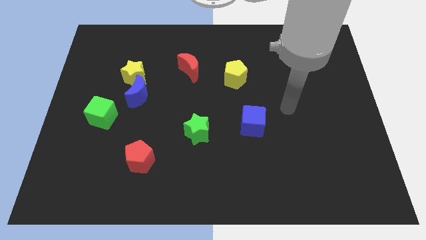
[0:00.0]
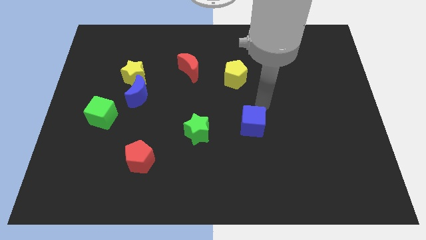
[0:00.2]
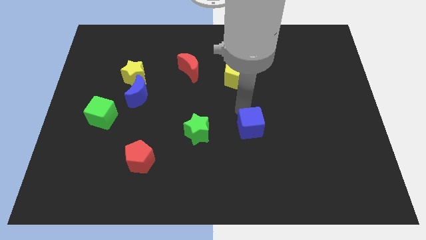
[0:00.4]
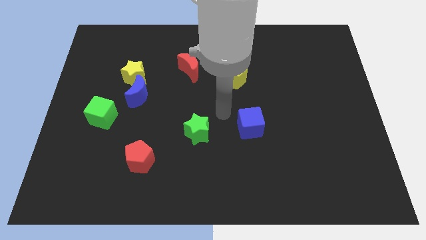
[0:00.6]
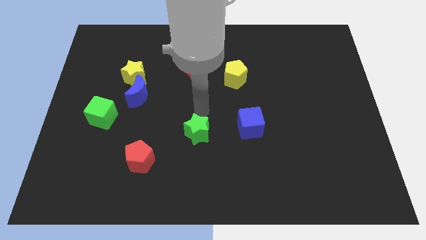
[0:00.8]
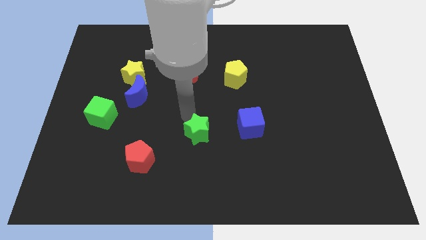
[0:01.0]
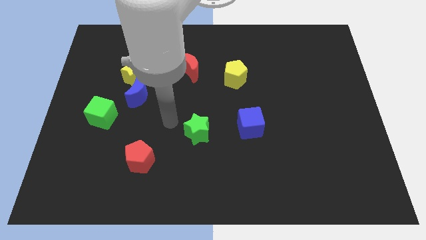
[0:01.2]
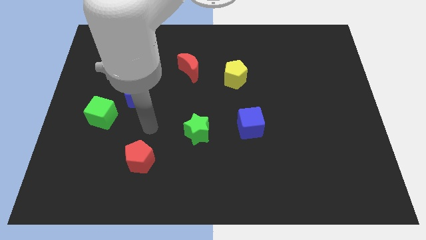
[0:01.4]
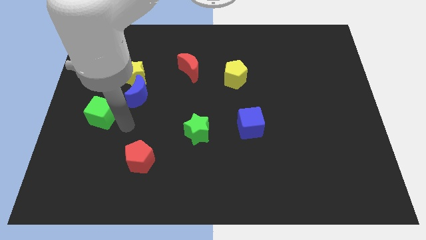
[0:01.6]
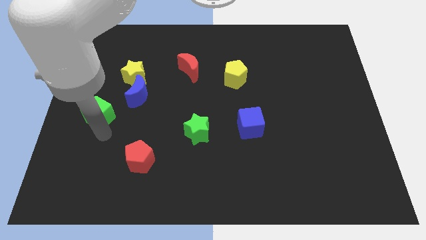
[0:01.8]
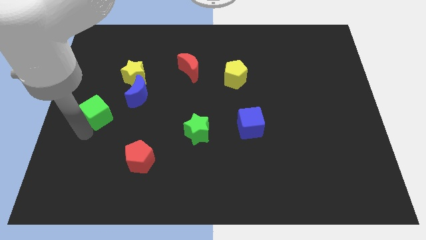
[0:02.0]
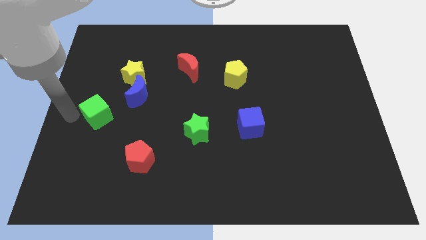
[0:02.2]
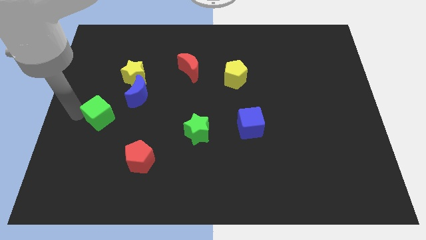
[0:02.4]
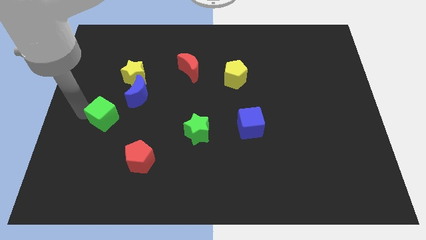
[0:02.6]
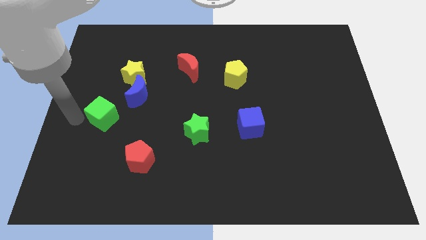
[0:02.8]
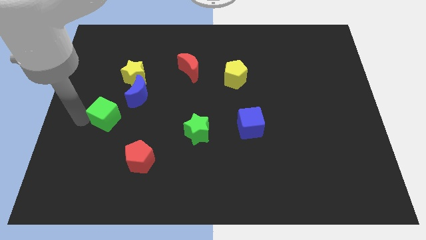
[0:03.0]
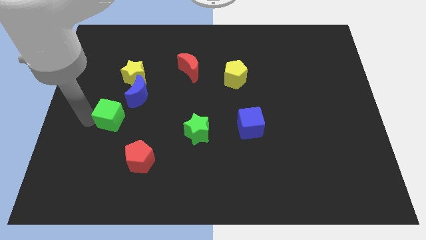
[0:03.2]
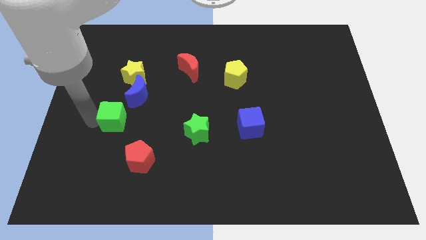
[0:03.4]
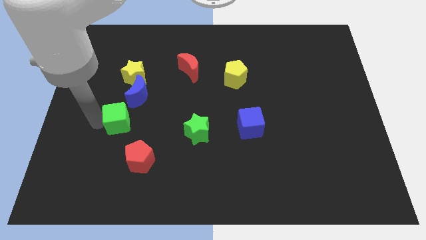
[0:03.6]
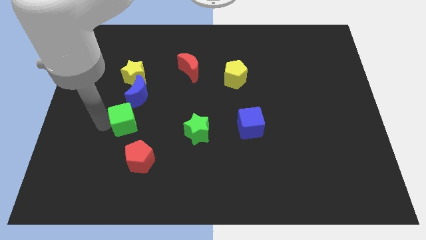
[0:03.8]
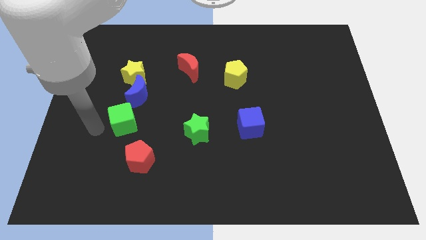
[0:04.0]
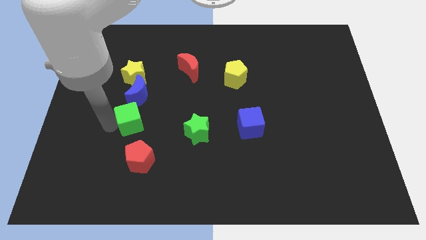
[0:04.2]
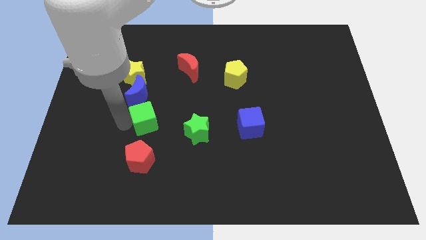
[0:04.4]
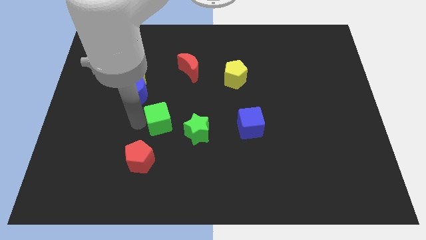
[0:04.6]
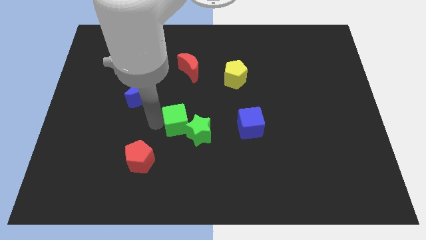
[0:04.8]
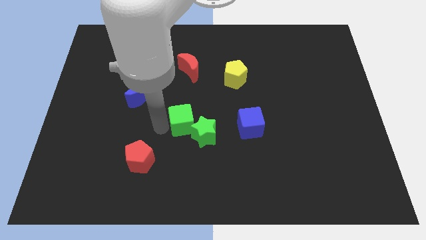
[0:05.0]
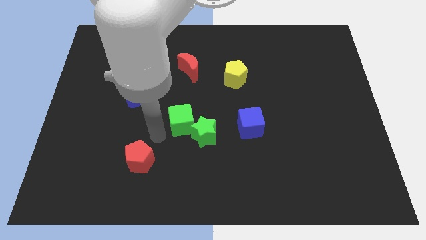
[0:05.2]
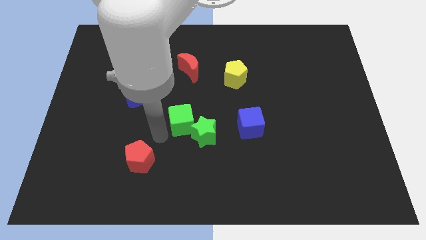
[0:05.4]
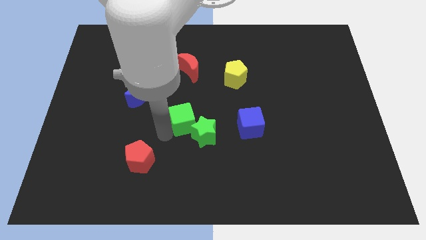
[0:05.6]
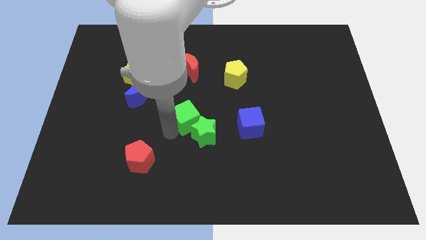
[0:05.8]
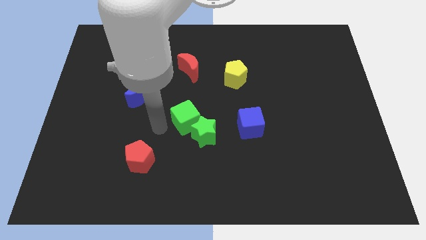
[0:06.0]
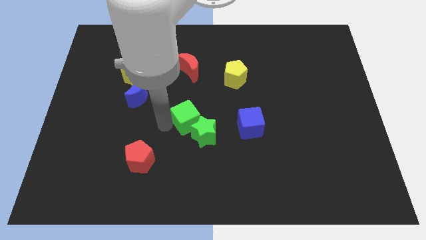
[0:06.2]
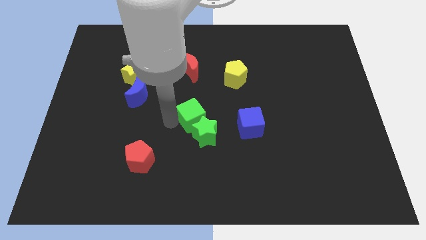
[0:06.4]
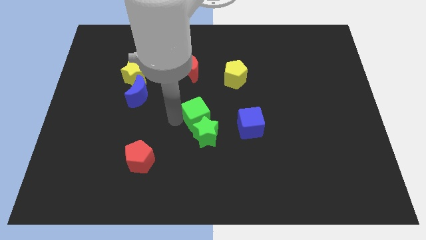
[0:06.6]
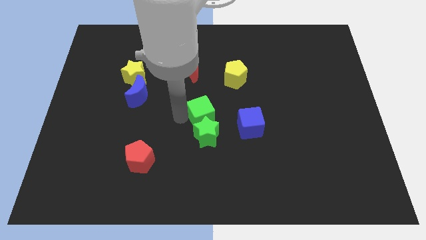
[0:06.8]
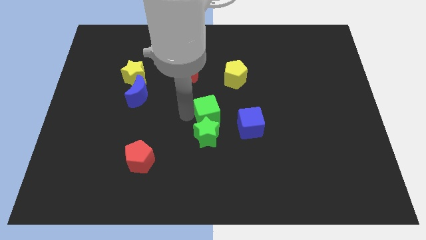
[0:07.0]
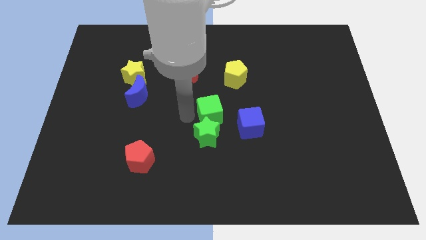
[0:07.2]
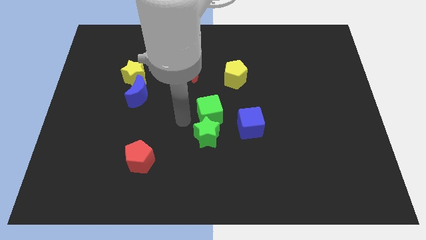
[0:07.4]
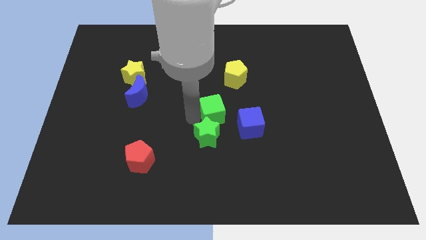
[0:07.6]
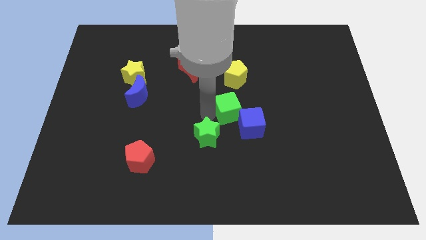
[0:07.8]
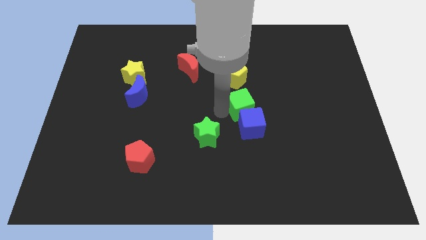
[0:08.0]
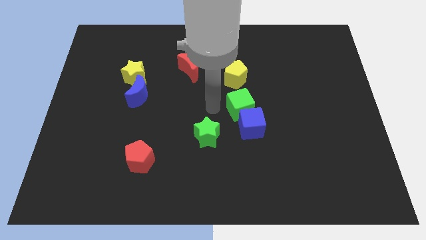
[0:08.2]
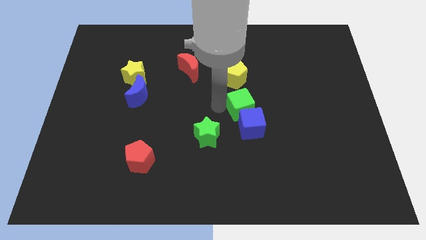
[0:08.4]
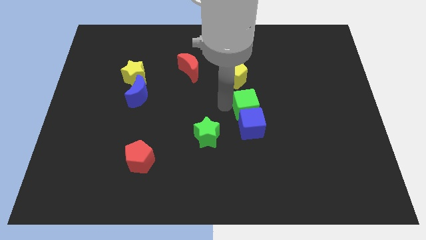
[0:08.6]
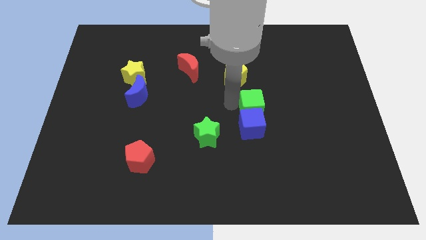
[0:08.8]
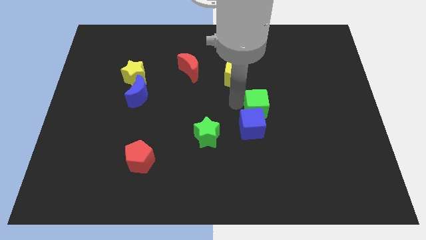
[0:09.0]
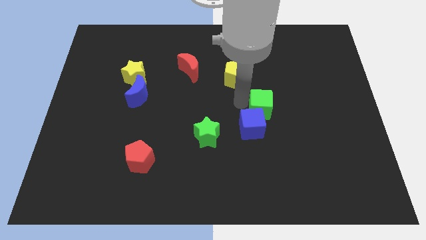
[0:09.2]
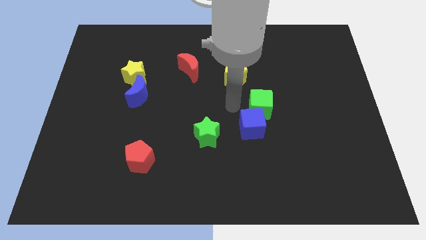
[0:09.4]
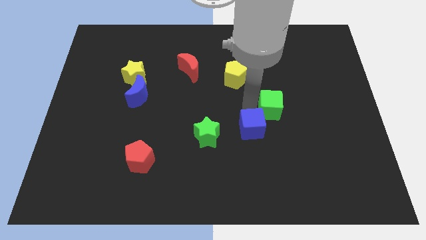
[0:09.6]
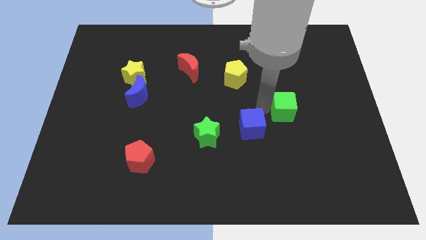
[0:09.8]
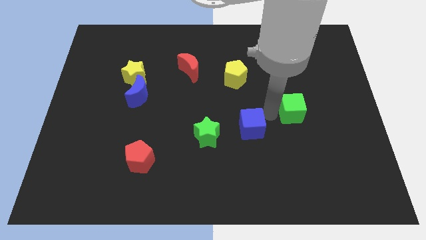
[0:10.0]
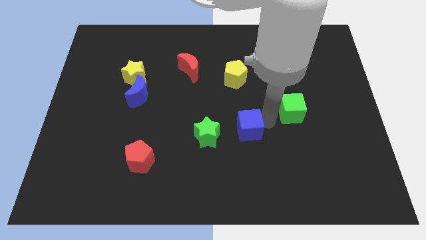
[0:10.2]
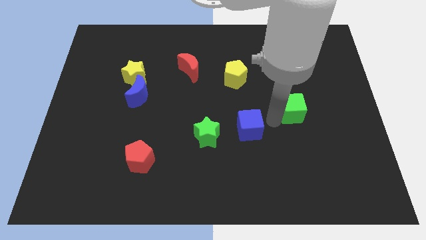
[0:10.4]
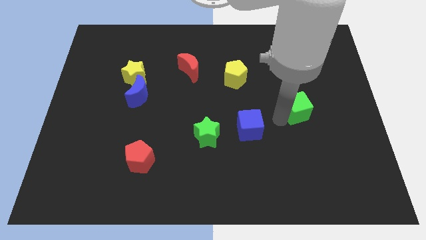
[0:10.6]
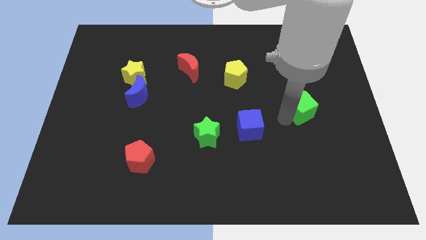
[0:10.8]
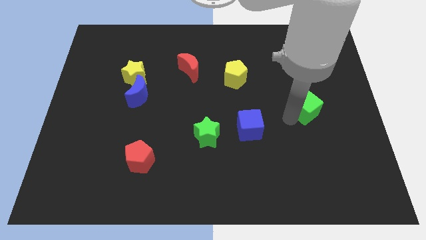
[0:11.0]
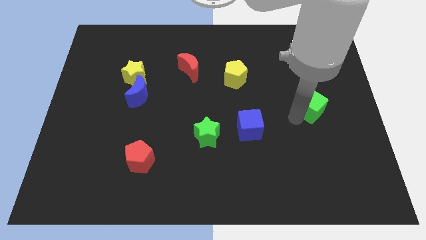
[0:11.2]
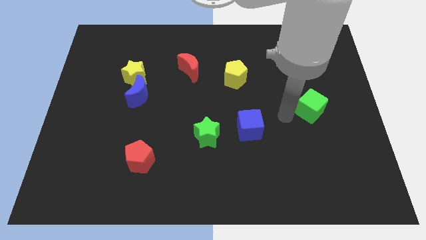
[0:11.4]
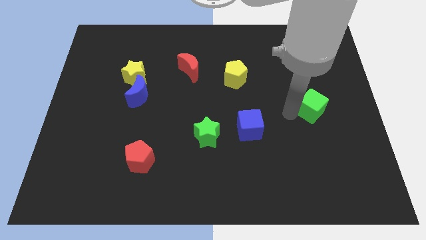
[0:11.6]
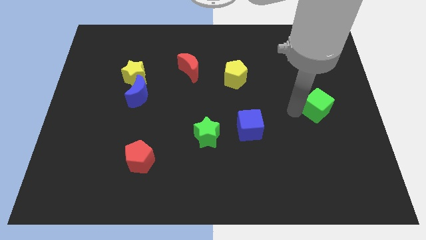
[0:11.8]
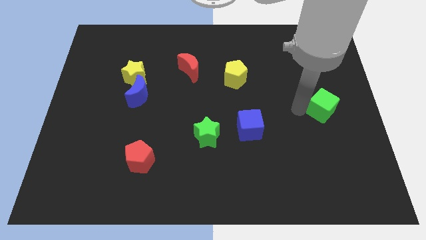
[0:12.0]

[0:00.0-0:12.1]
slide the green cube to the center right

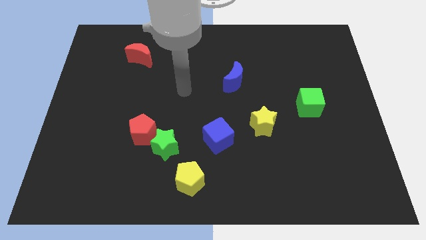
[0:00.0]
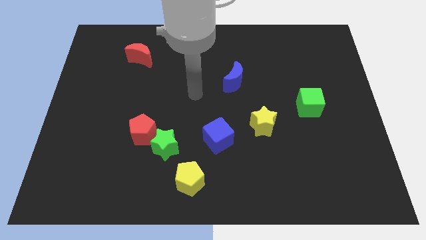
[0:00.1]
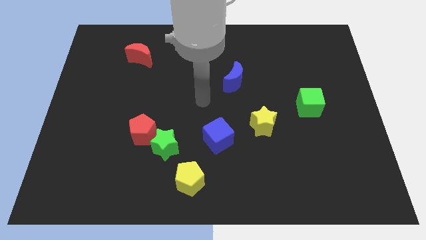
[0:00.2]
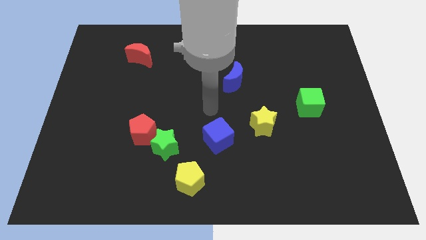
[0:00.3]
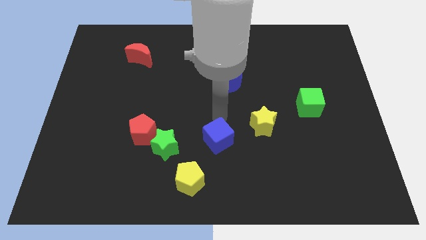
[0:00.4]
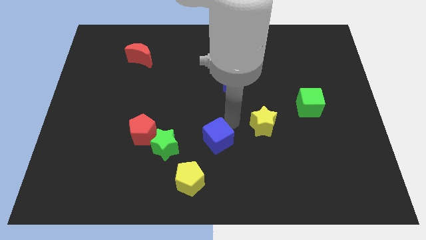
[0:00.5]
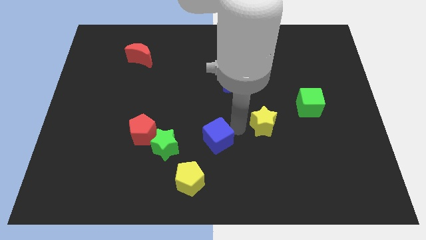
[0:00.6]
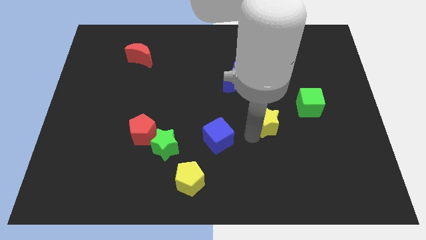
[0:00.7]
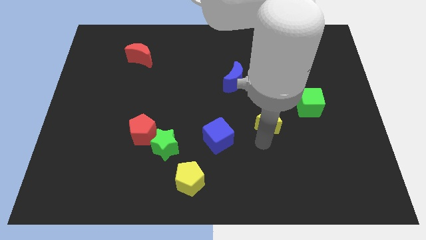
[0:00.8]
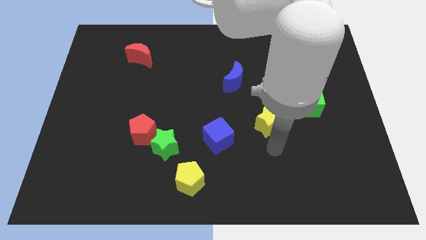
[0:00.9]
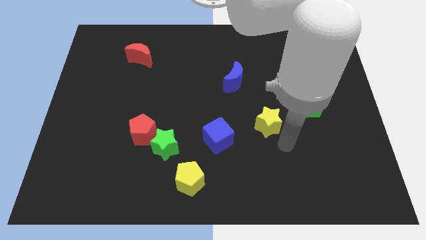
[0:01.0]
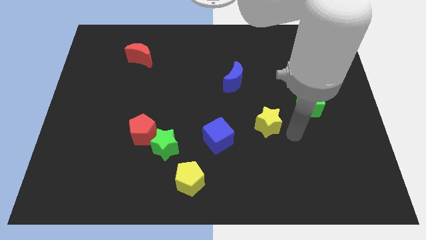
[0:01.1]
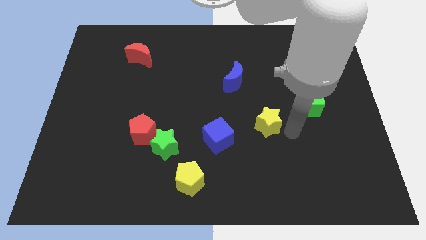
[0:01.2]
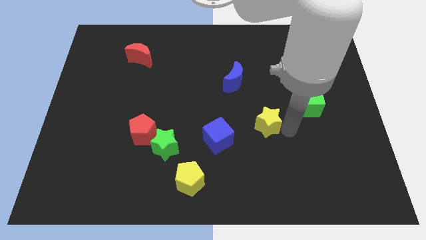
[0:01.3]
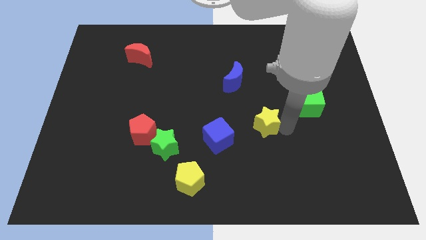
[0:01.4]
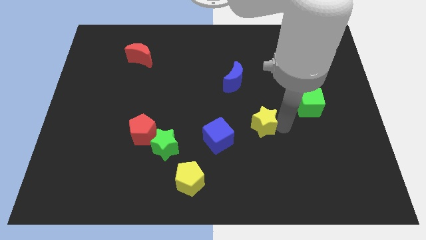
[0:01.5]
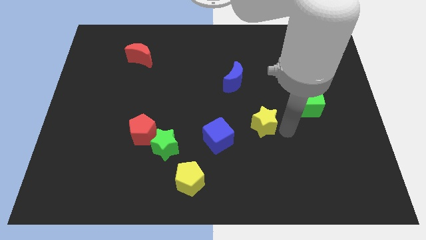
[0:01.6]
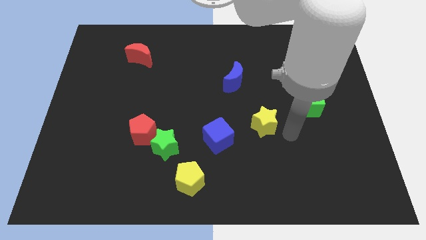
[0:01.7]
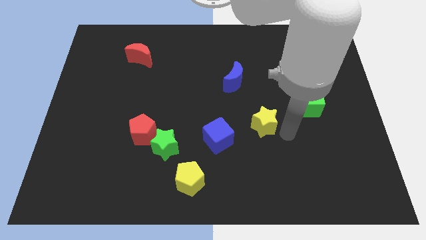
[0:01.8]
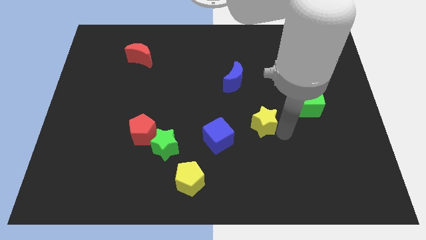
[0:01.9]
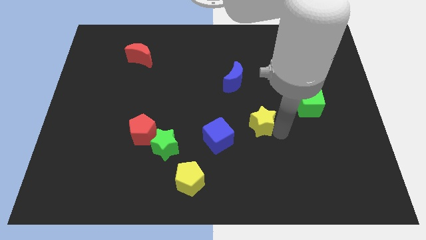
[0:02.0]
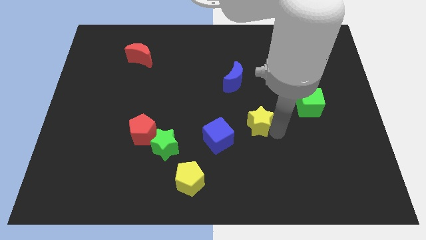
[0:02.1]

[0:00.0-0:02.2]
push the yellow star to the middle
